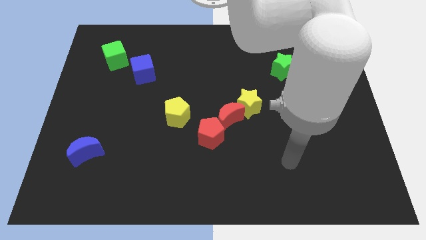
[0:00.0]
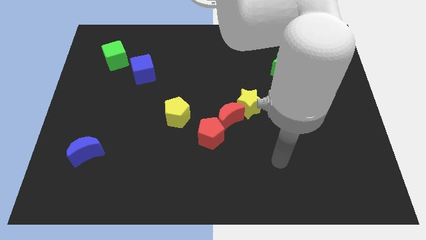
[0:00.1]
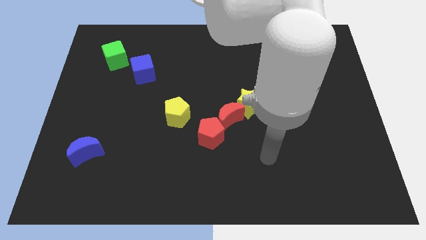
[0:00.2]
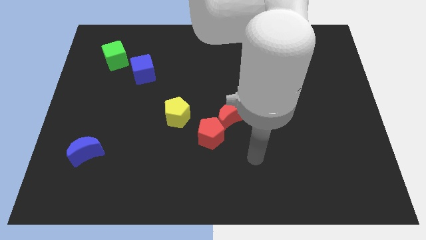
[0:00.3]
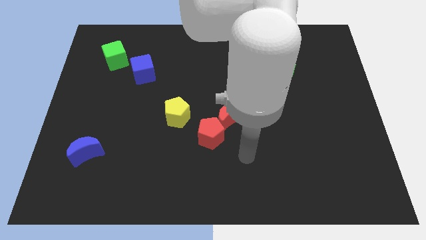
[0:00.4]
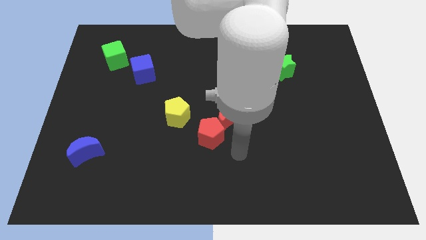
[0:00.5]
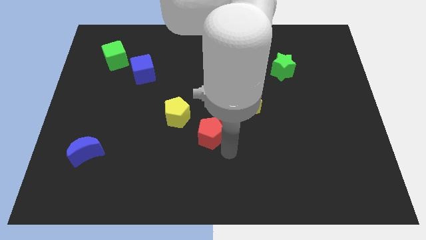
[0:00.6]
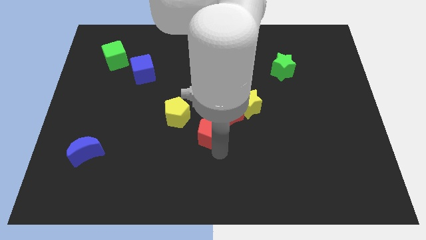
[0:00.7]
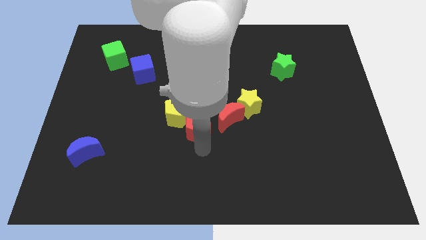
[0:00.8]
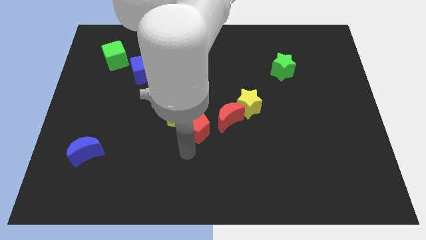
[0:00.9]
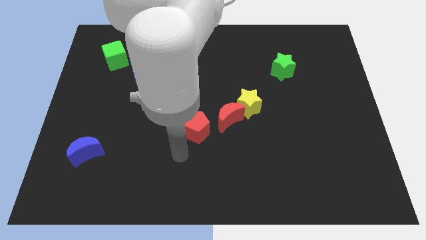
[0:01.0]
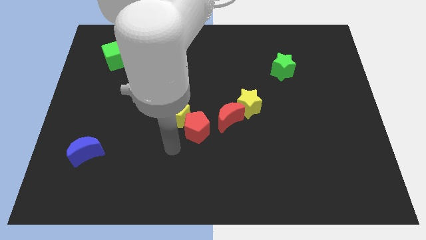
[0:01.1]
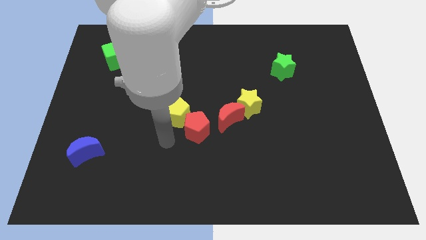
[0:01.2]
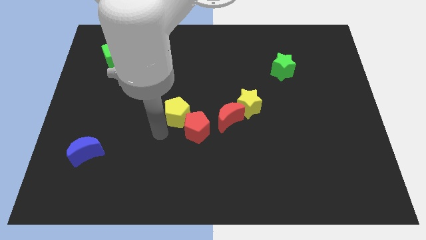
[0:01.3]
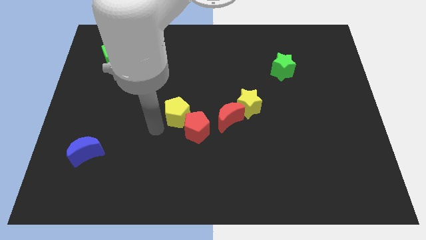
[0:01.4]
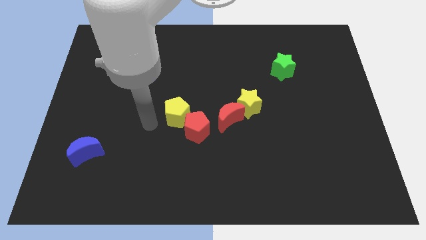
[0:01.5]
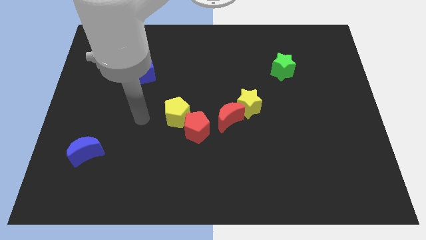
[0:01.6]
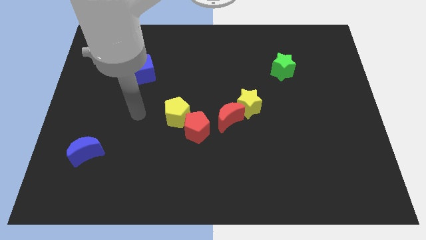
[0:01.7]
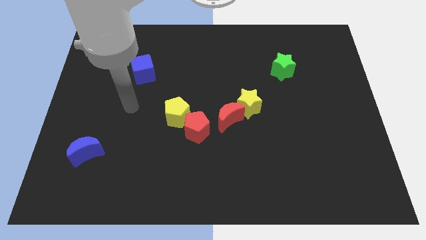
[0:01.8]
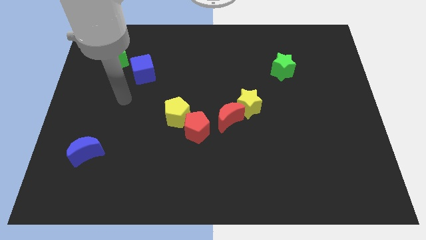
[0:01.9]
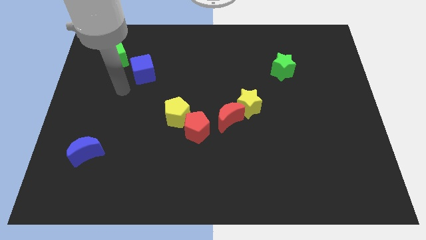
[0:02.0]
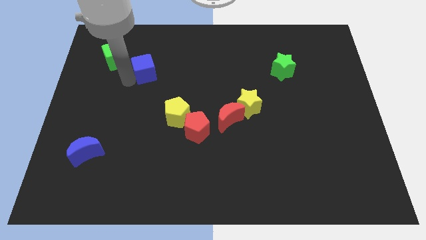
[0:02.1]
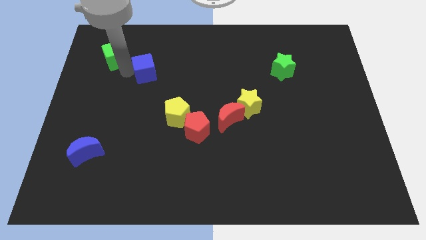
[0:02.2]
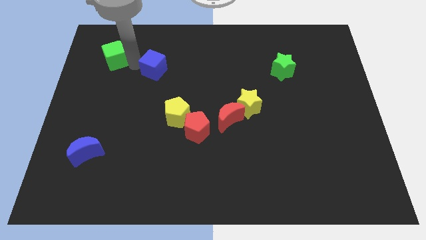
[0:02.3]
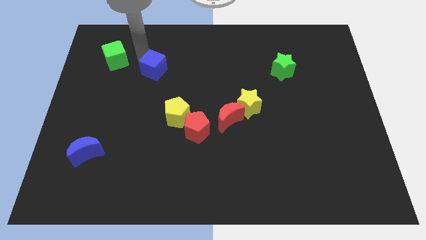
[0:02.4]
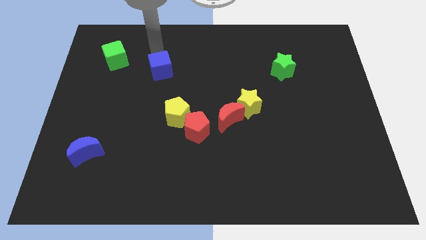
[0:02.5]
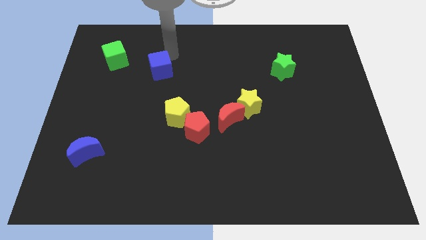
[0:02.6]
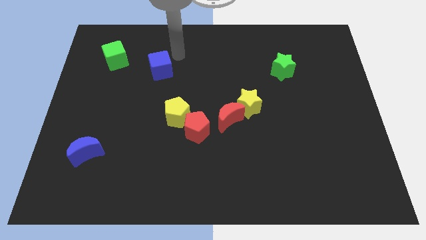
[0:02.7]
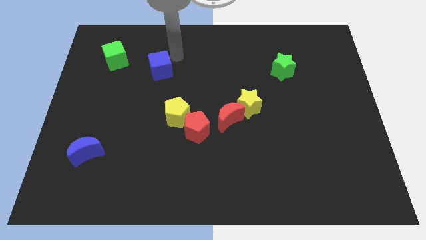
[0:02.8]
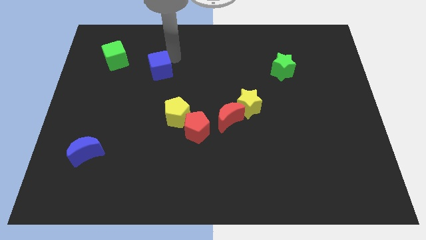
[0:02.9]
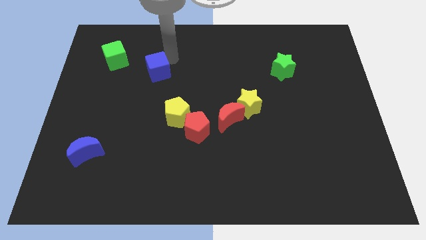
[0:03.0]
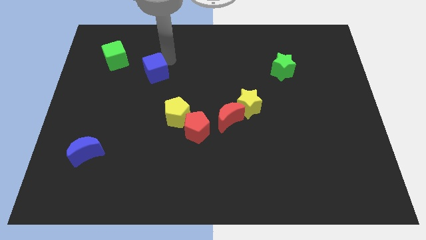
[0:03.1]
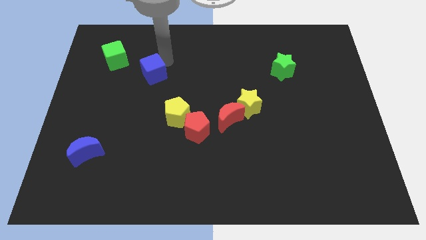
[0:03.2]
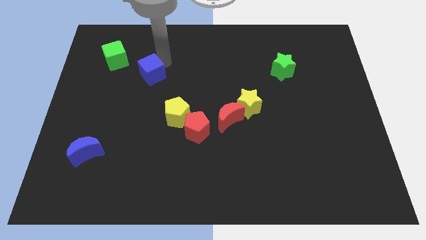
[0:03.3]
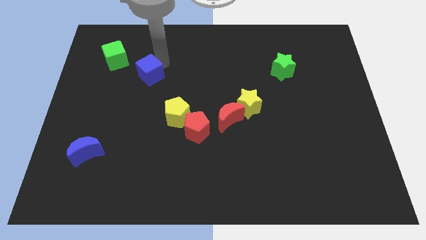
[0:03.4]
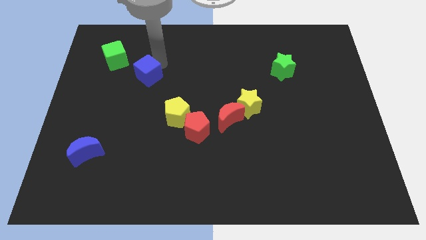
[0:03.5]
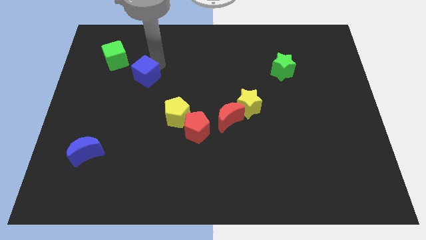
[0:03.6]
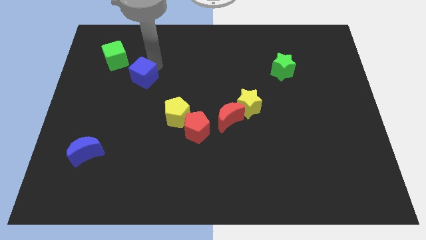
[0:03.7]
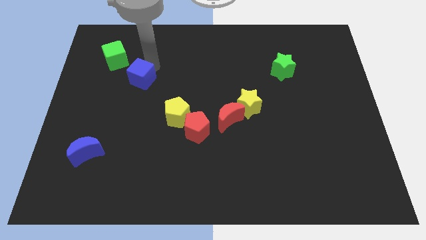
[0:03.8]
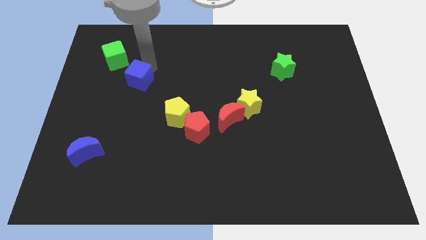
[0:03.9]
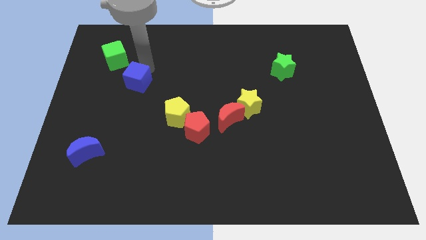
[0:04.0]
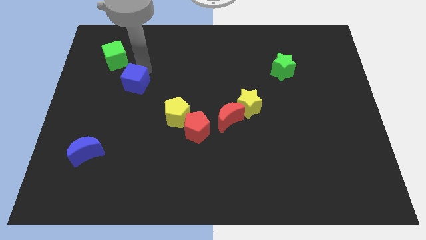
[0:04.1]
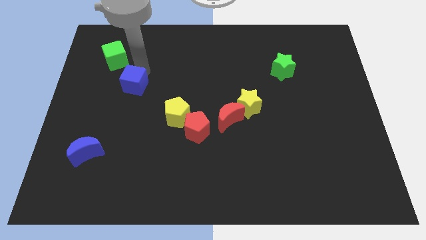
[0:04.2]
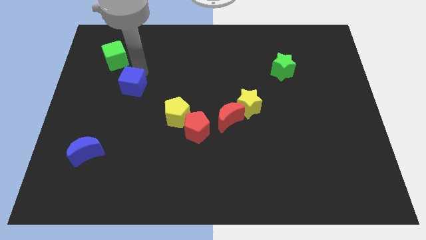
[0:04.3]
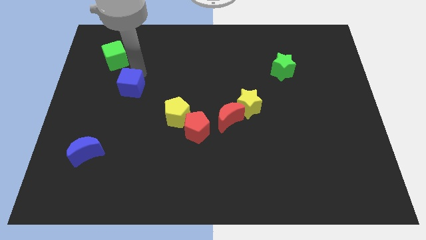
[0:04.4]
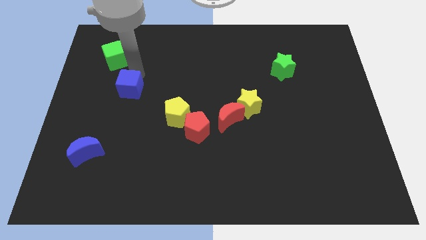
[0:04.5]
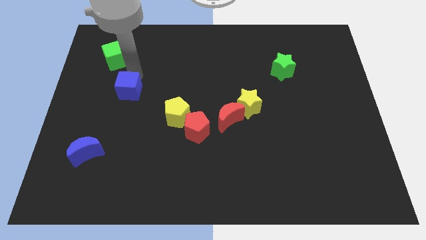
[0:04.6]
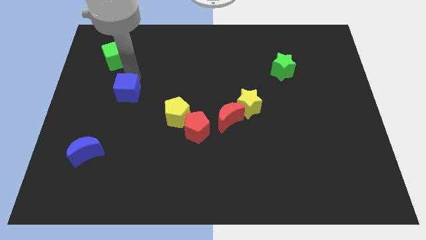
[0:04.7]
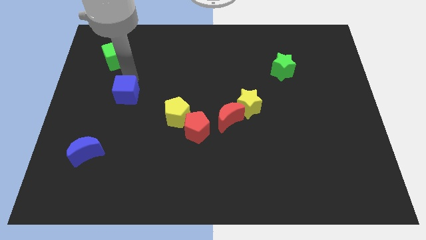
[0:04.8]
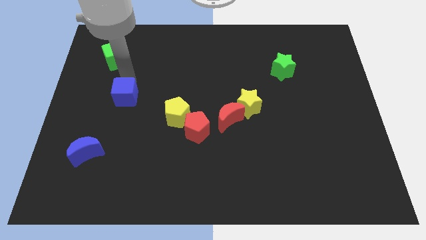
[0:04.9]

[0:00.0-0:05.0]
slightly push the blue cube down

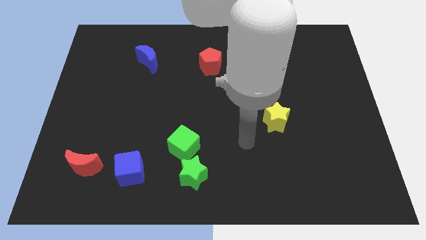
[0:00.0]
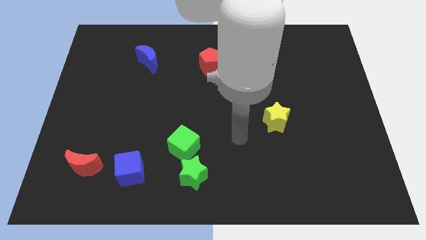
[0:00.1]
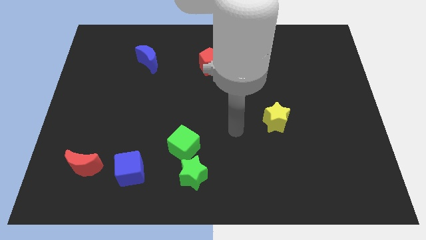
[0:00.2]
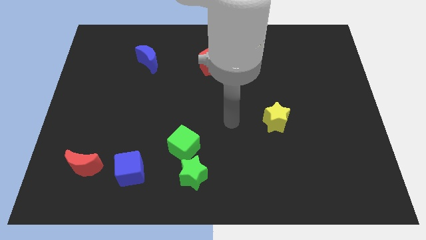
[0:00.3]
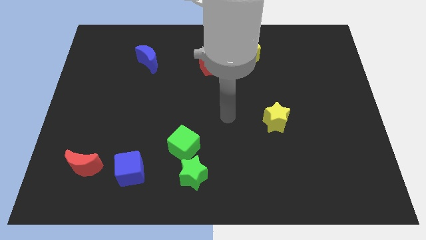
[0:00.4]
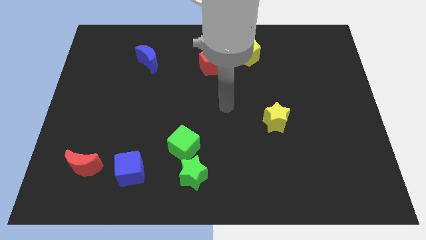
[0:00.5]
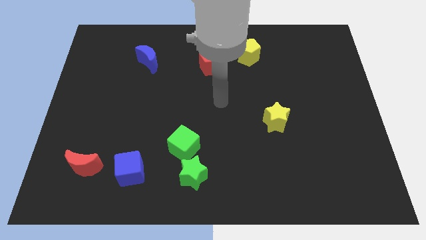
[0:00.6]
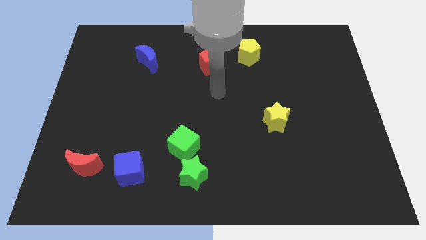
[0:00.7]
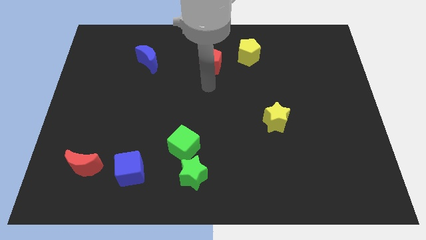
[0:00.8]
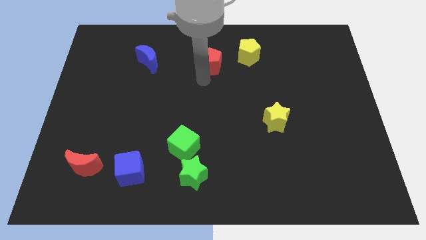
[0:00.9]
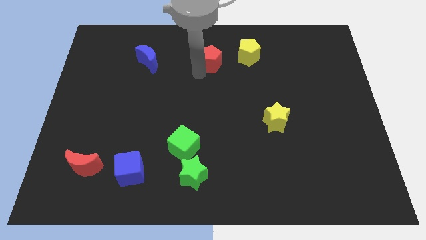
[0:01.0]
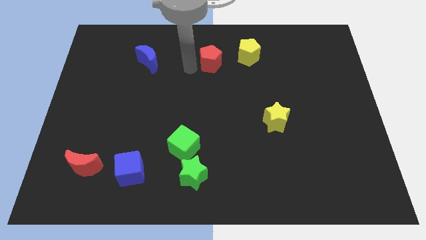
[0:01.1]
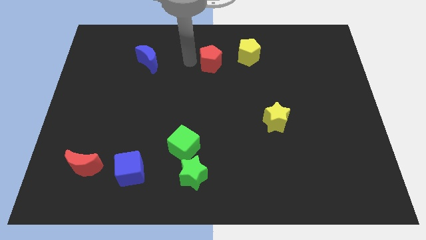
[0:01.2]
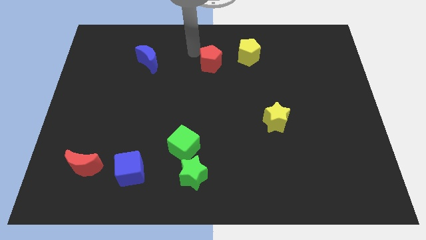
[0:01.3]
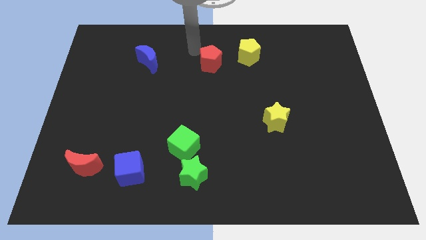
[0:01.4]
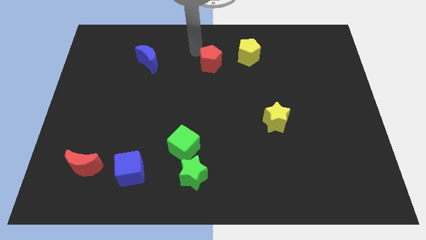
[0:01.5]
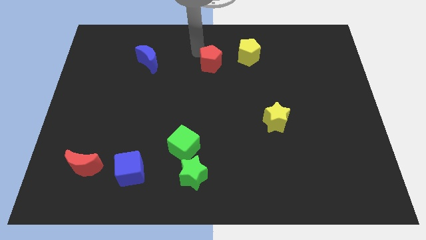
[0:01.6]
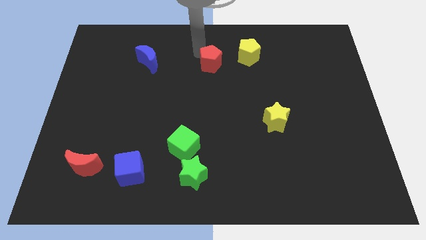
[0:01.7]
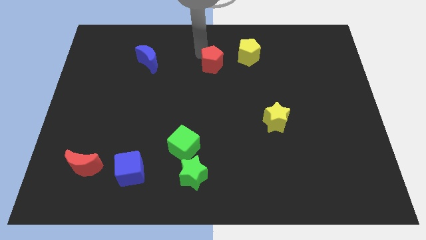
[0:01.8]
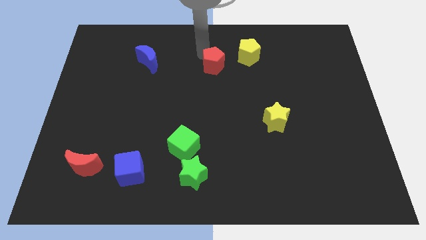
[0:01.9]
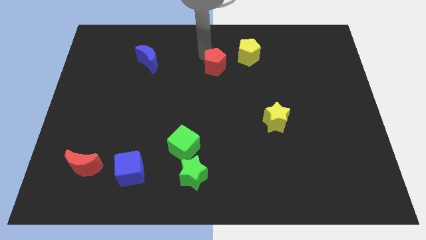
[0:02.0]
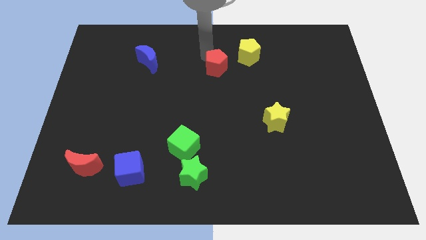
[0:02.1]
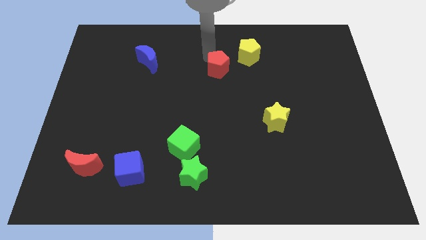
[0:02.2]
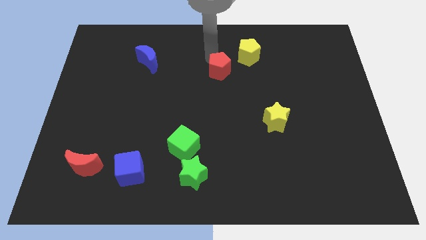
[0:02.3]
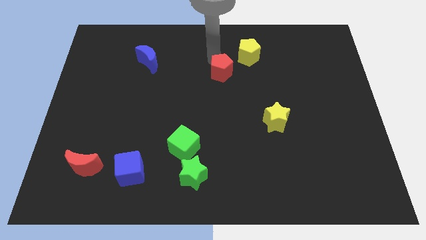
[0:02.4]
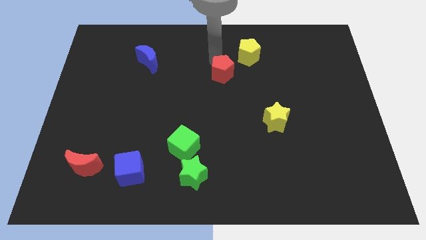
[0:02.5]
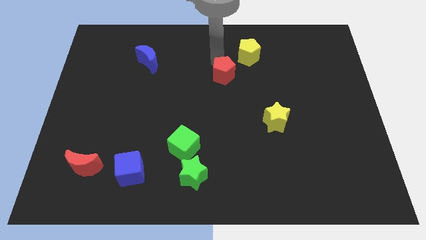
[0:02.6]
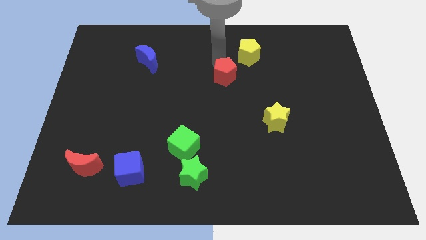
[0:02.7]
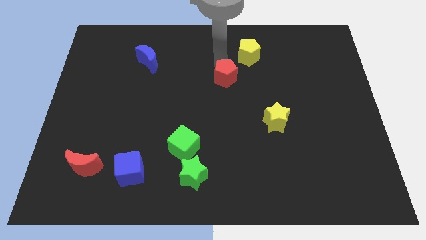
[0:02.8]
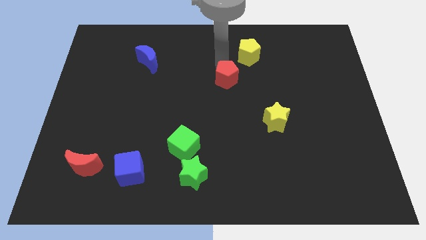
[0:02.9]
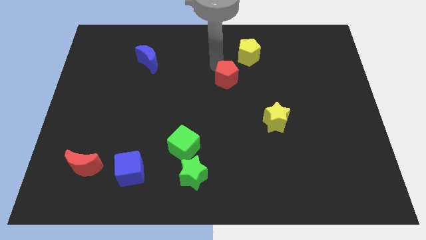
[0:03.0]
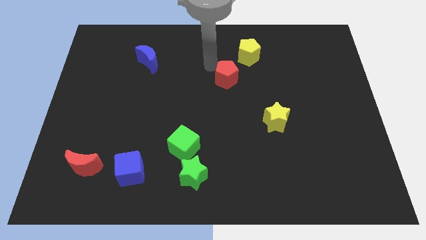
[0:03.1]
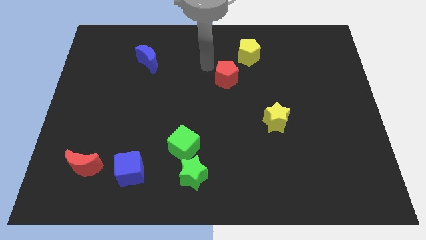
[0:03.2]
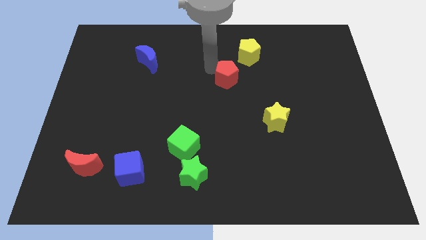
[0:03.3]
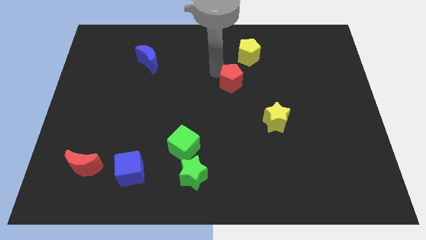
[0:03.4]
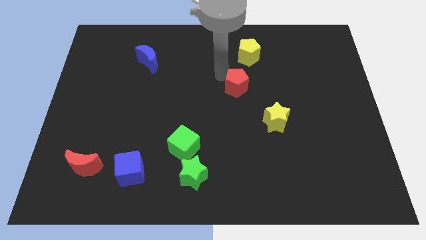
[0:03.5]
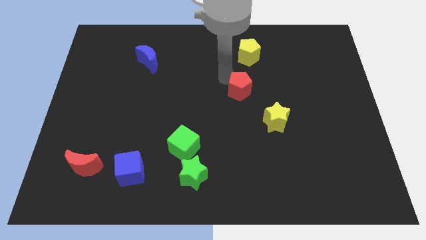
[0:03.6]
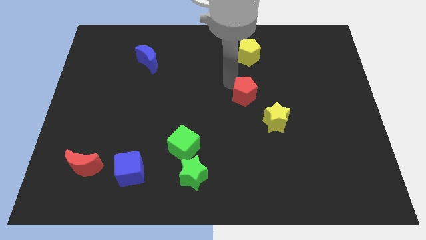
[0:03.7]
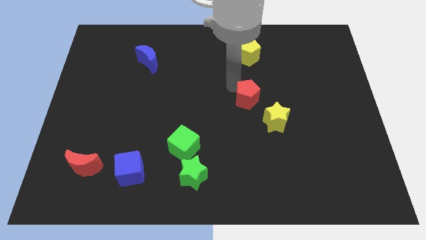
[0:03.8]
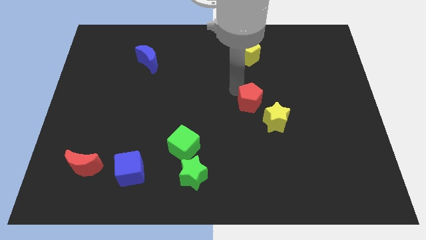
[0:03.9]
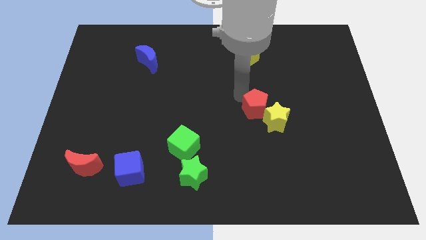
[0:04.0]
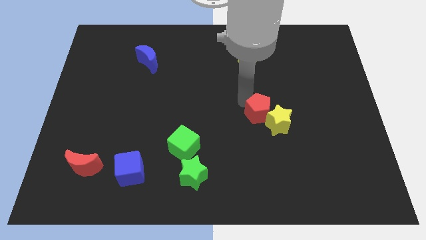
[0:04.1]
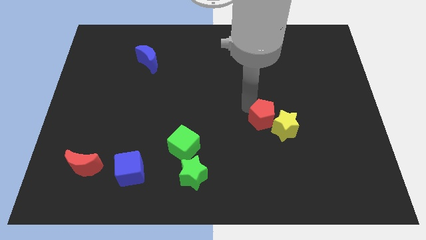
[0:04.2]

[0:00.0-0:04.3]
push the red pentagon down and to the right
